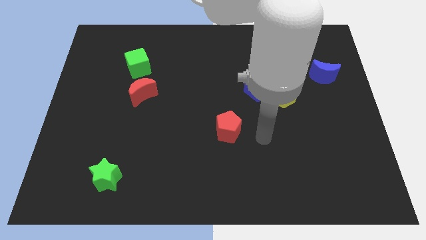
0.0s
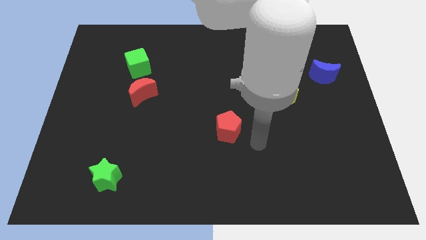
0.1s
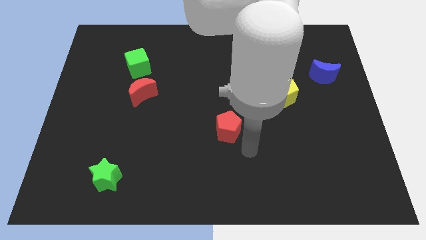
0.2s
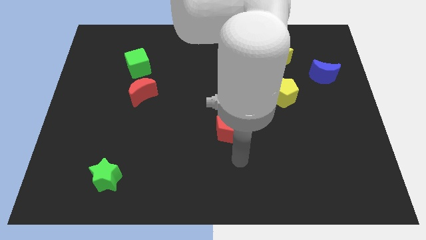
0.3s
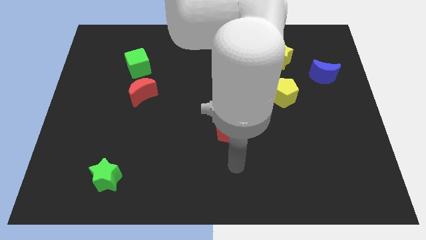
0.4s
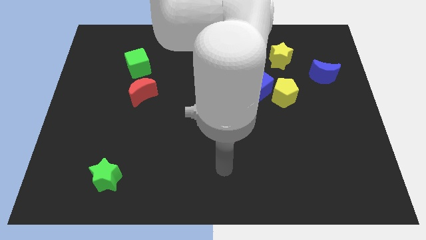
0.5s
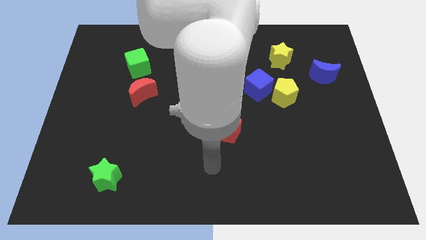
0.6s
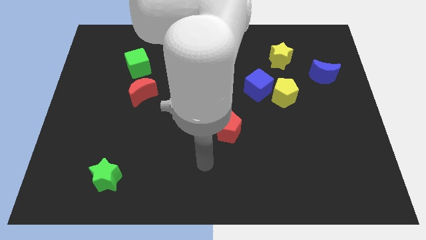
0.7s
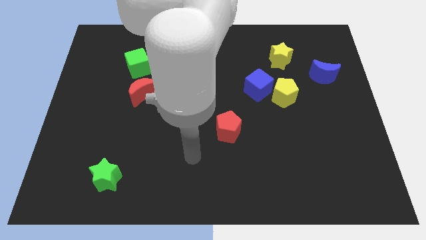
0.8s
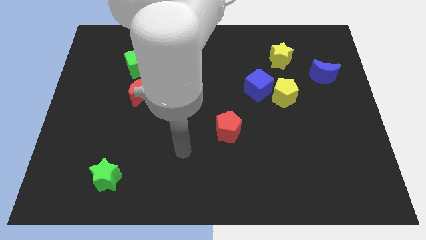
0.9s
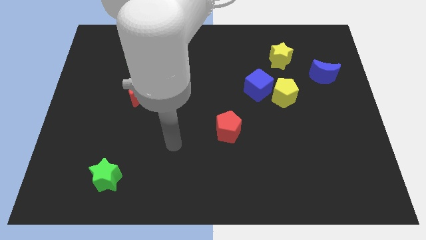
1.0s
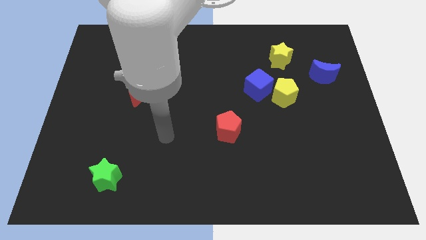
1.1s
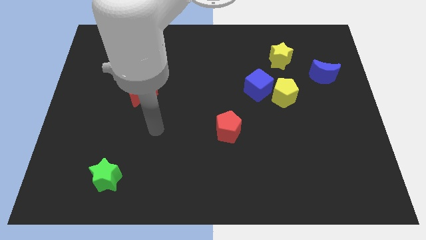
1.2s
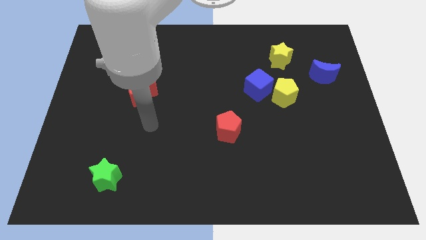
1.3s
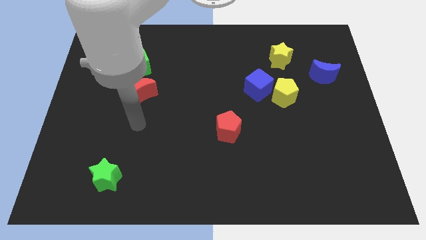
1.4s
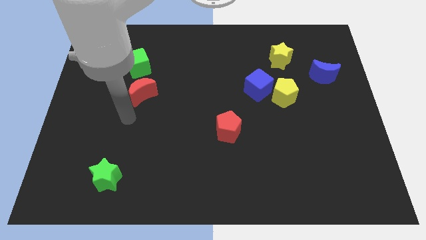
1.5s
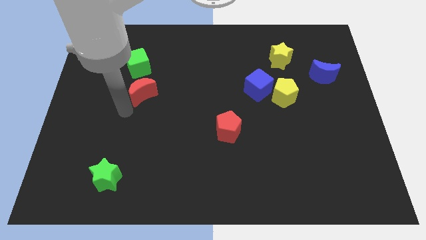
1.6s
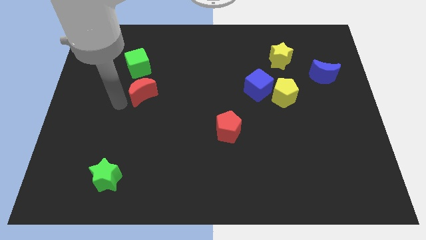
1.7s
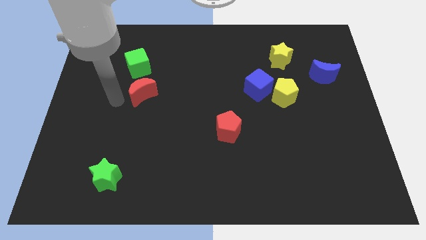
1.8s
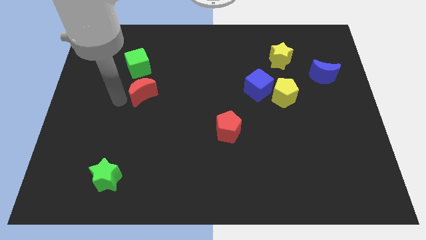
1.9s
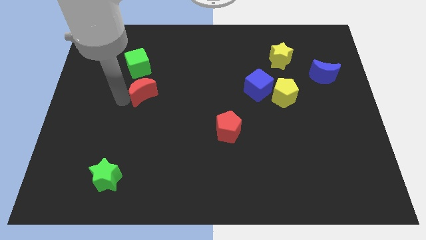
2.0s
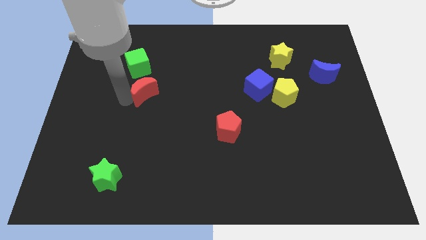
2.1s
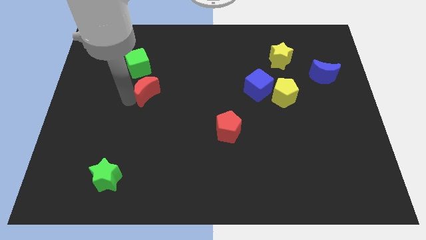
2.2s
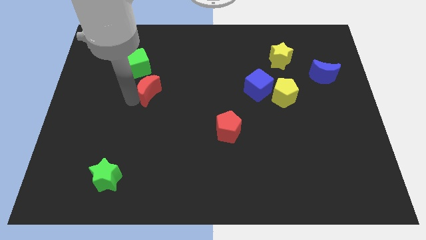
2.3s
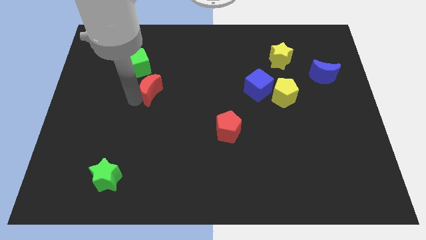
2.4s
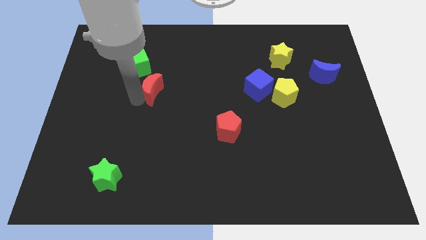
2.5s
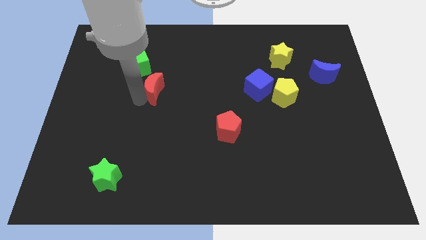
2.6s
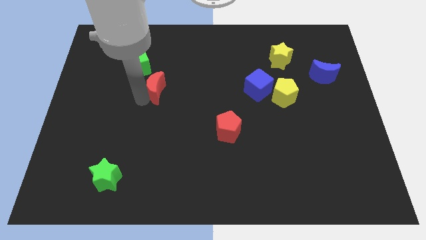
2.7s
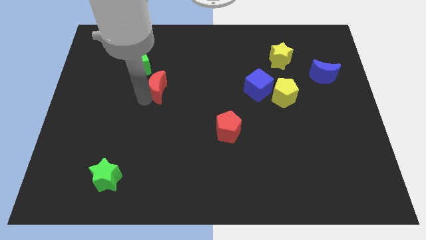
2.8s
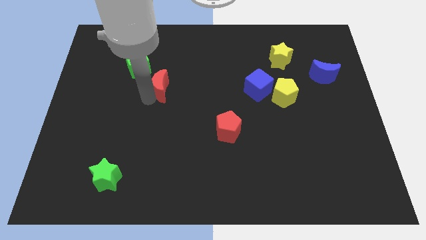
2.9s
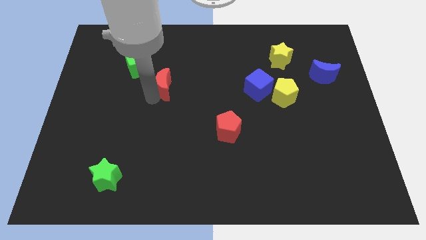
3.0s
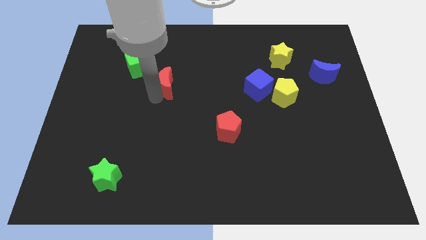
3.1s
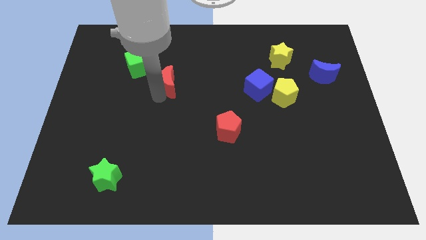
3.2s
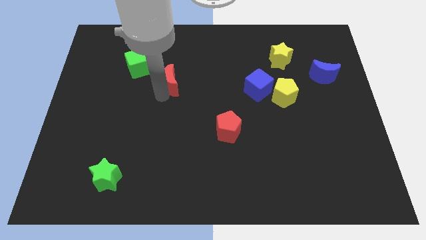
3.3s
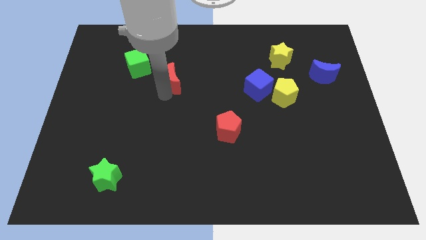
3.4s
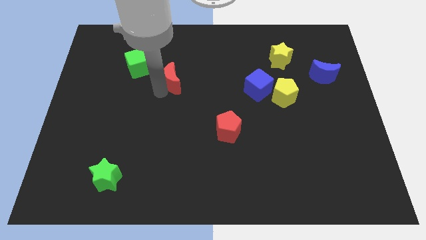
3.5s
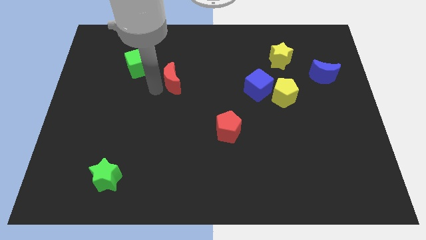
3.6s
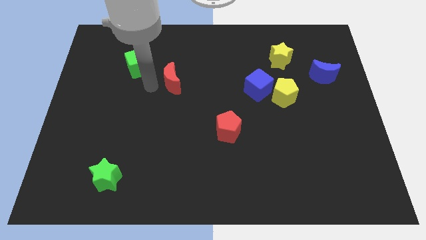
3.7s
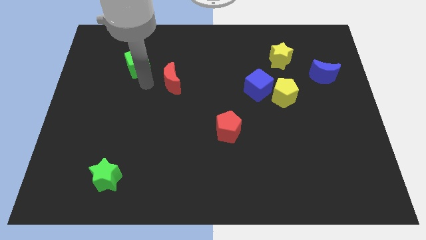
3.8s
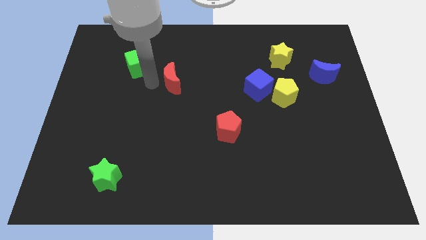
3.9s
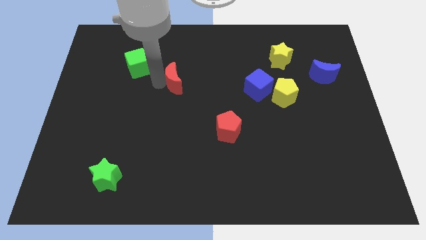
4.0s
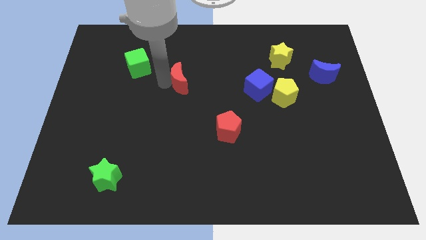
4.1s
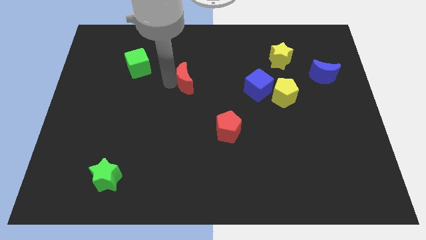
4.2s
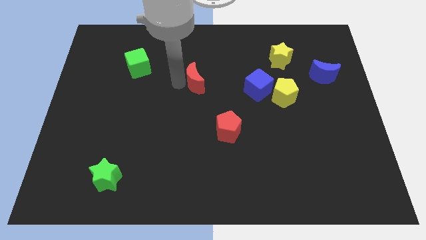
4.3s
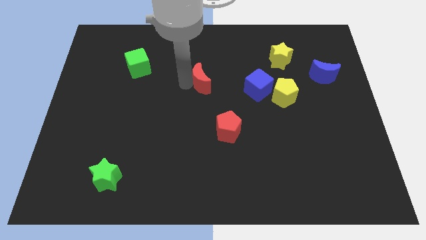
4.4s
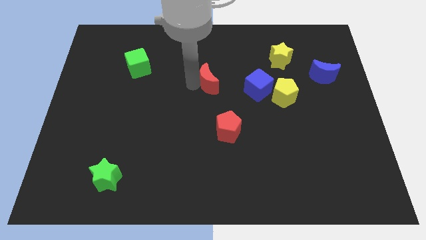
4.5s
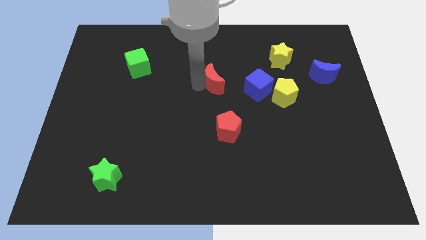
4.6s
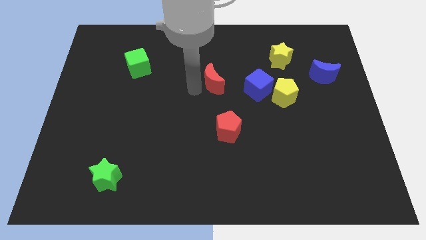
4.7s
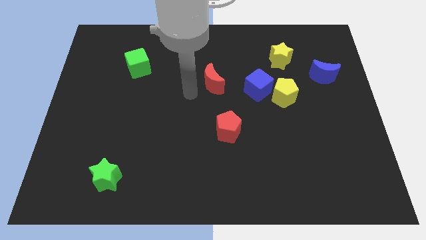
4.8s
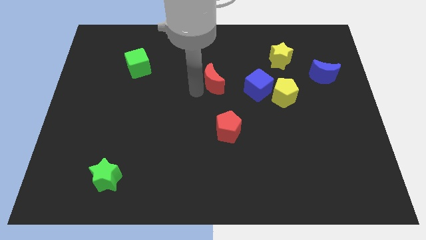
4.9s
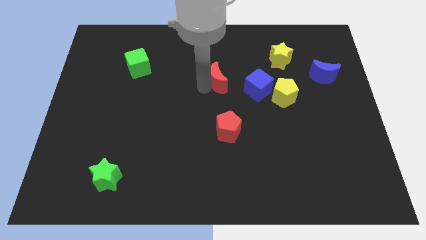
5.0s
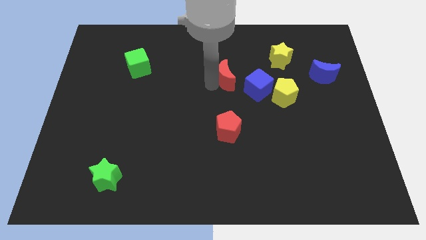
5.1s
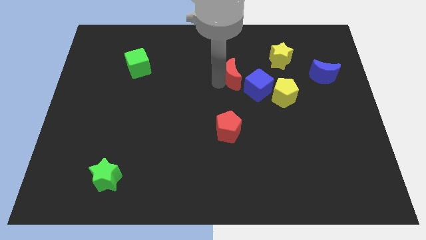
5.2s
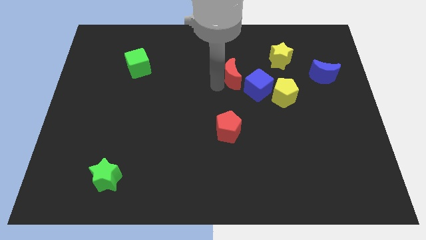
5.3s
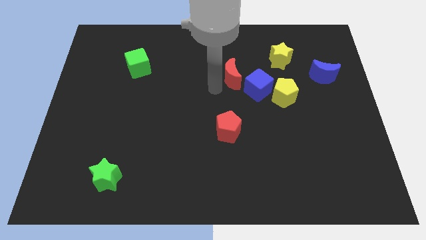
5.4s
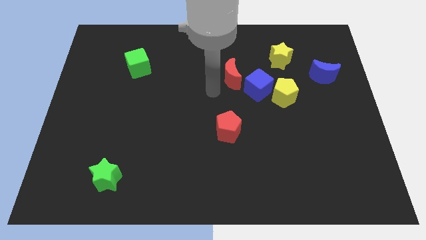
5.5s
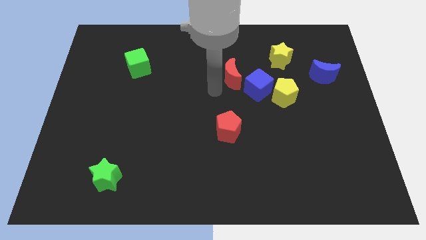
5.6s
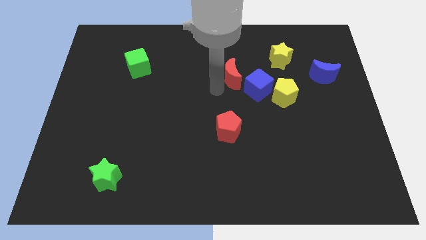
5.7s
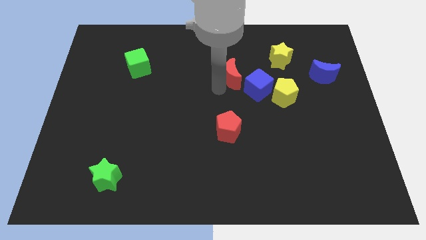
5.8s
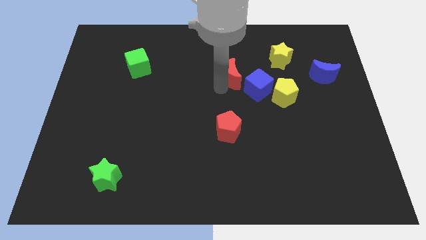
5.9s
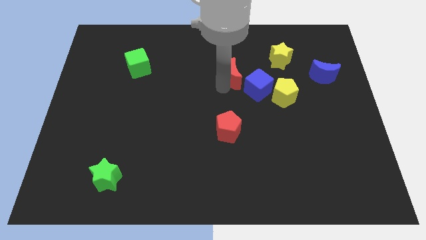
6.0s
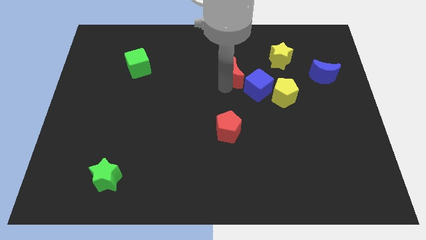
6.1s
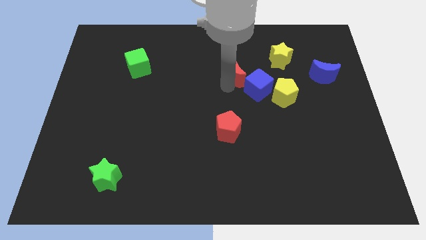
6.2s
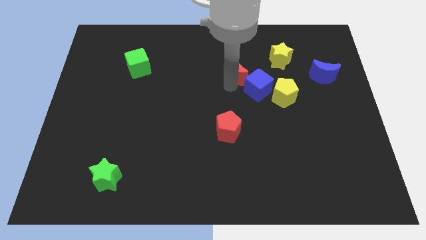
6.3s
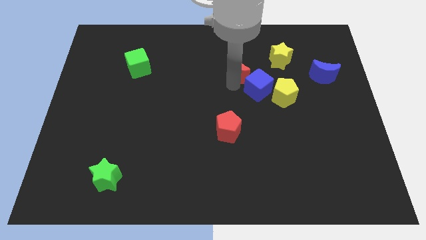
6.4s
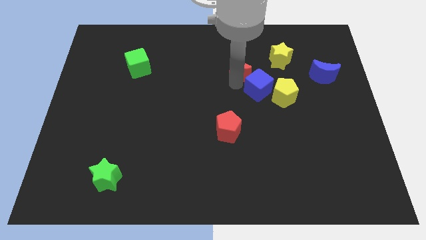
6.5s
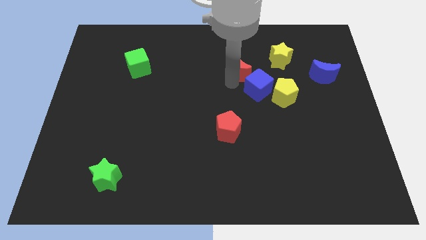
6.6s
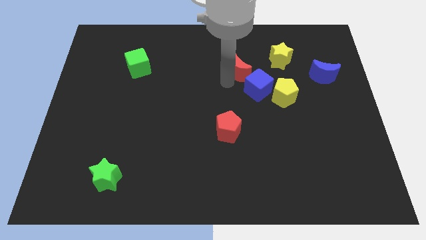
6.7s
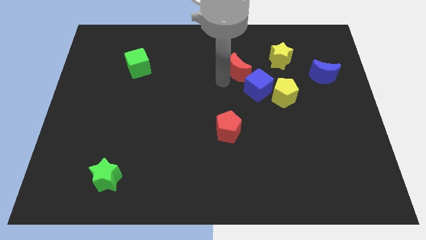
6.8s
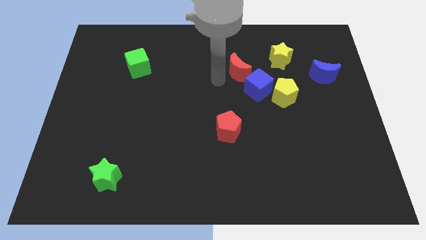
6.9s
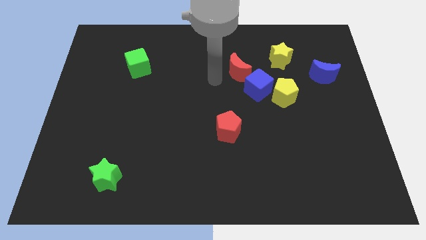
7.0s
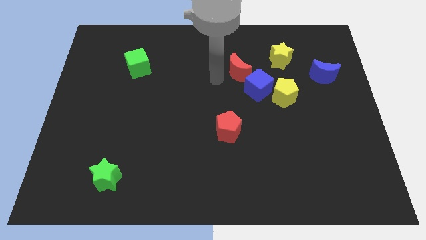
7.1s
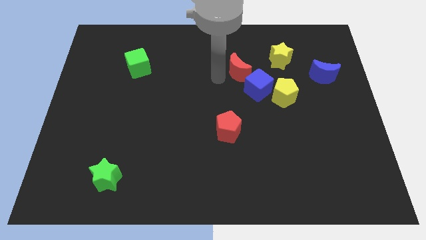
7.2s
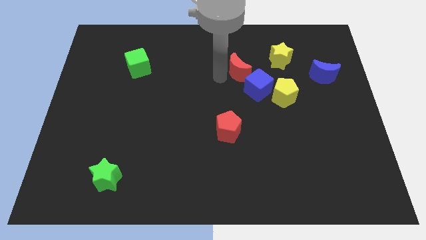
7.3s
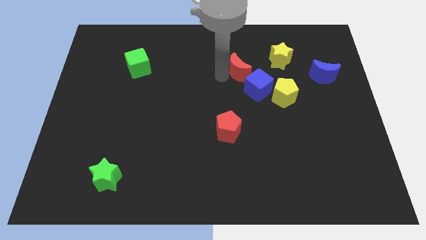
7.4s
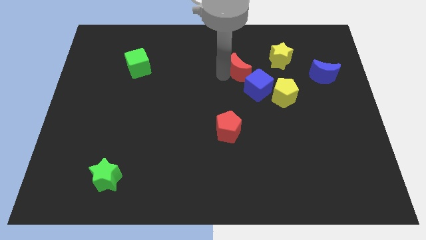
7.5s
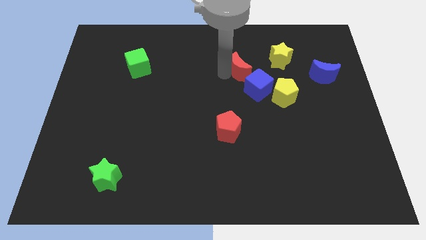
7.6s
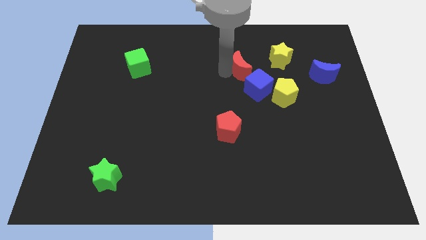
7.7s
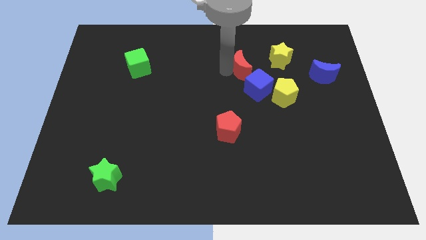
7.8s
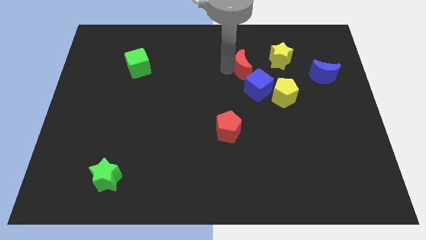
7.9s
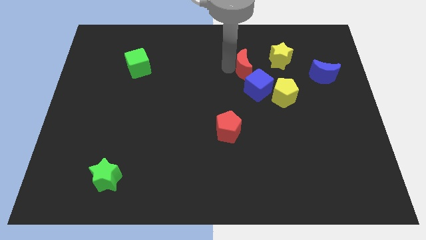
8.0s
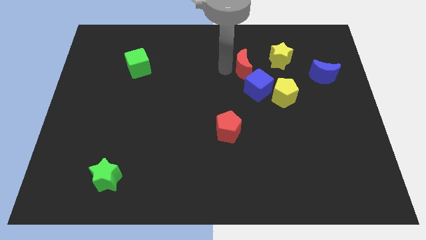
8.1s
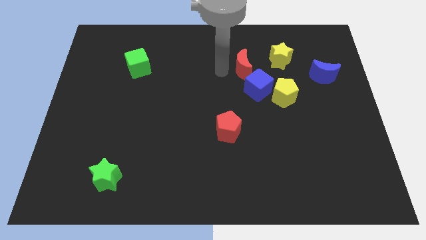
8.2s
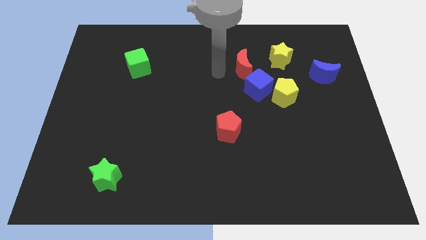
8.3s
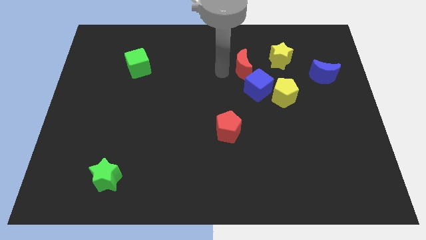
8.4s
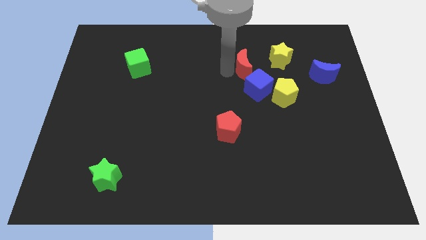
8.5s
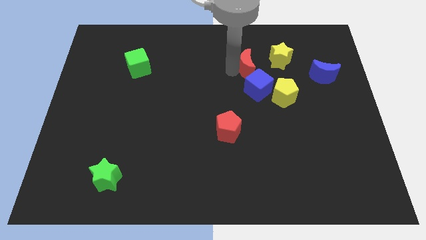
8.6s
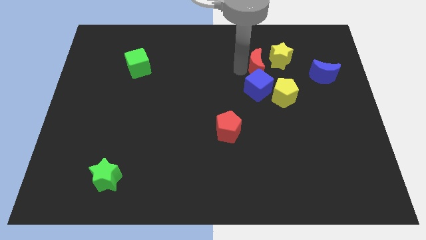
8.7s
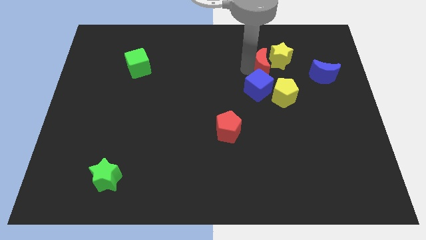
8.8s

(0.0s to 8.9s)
slide the red moon to the yellow star
